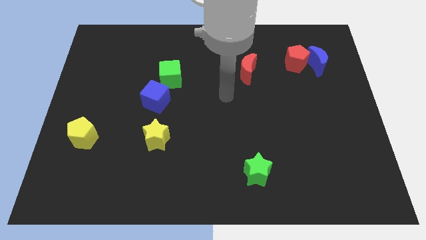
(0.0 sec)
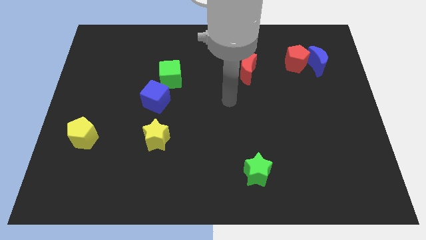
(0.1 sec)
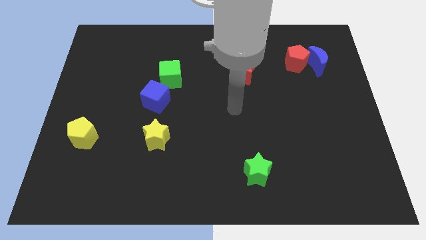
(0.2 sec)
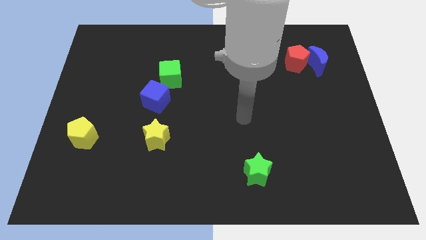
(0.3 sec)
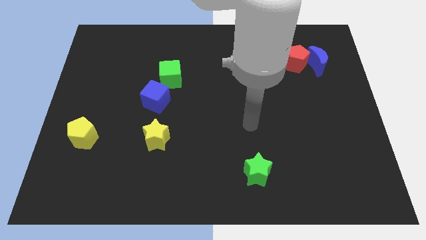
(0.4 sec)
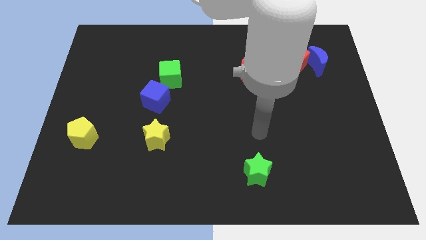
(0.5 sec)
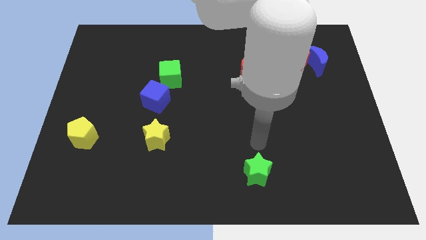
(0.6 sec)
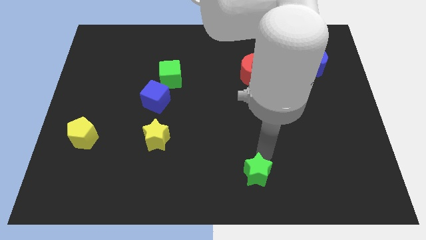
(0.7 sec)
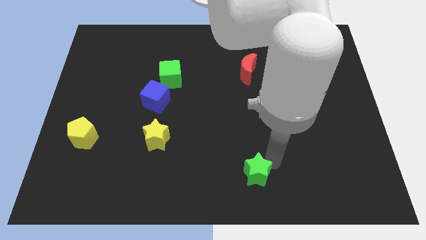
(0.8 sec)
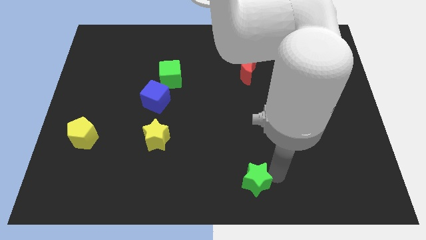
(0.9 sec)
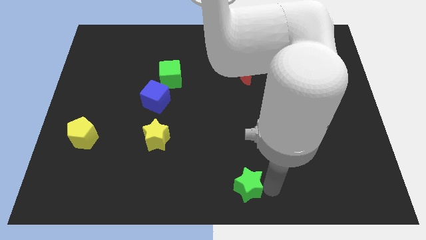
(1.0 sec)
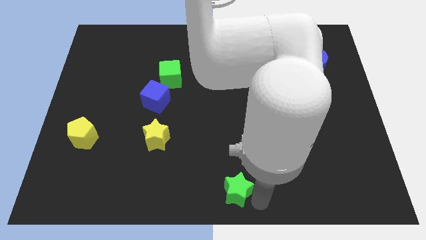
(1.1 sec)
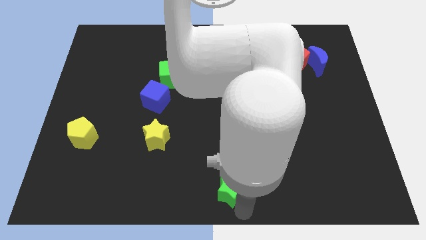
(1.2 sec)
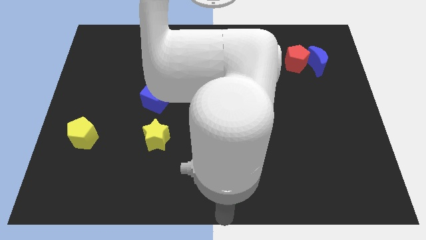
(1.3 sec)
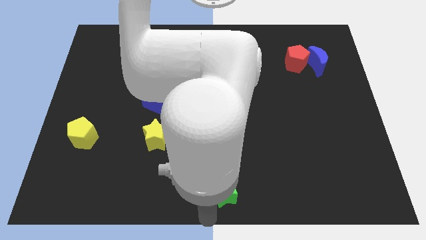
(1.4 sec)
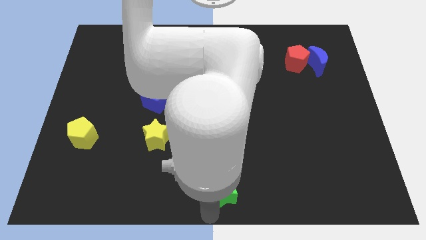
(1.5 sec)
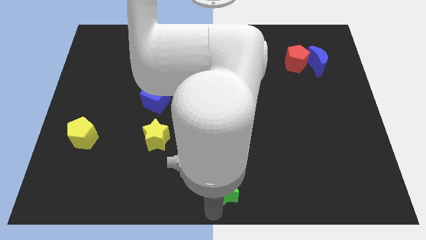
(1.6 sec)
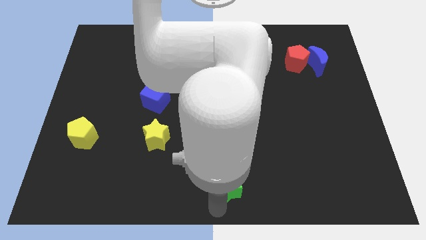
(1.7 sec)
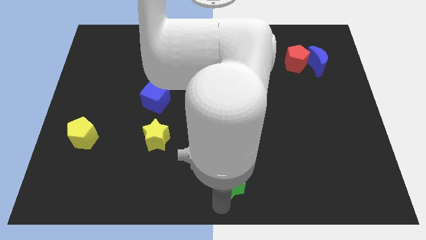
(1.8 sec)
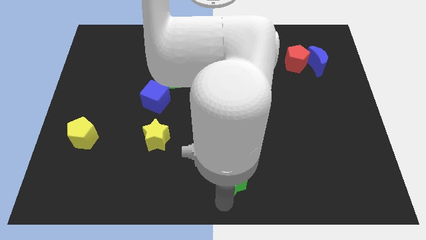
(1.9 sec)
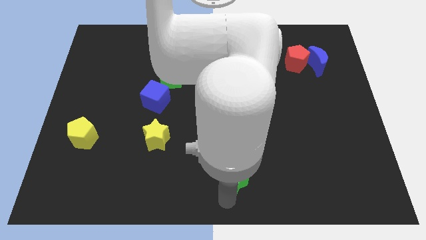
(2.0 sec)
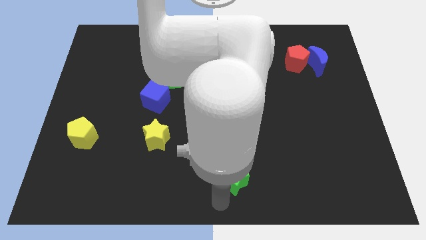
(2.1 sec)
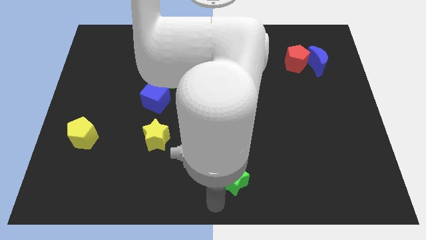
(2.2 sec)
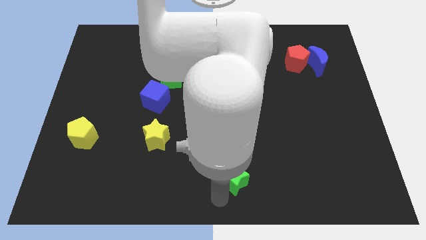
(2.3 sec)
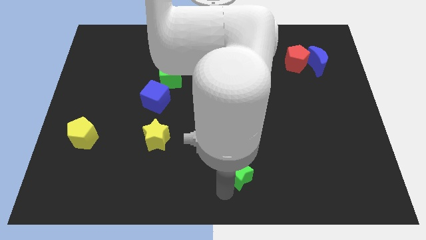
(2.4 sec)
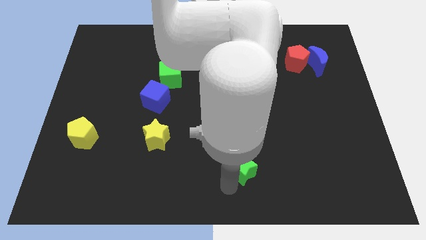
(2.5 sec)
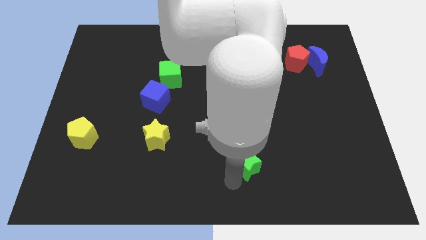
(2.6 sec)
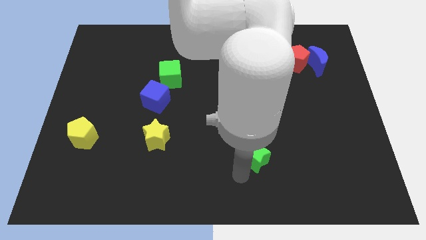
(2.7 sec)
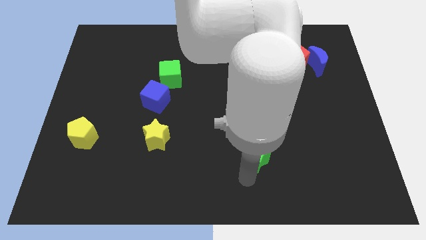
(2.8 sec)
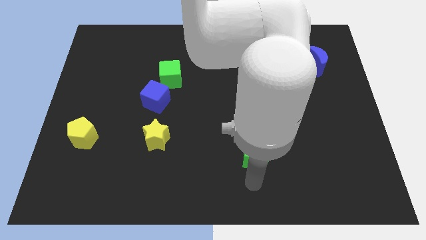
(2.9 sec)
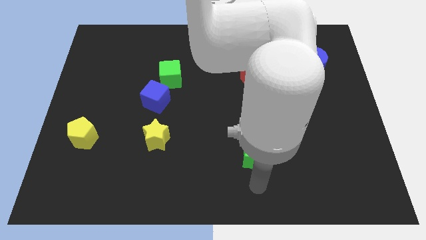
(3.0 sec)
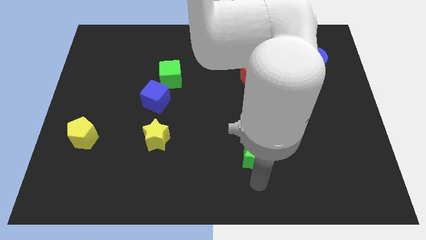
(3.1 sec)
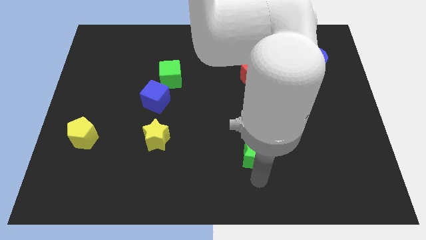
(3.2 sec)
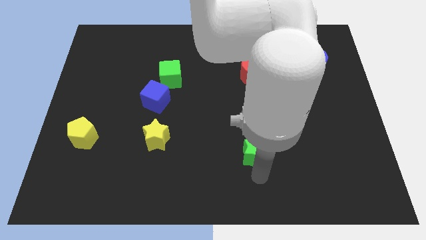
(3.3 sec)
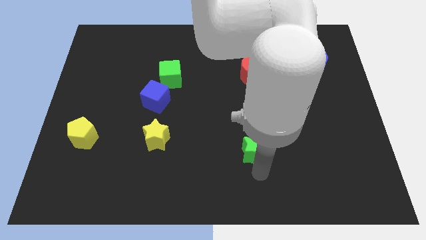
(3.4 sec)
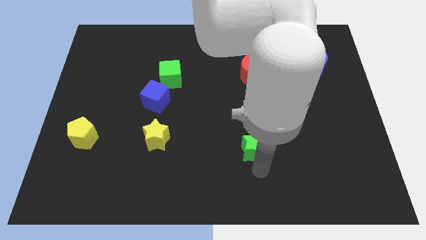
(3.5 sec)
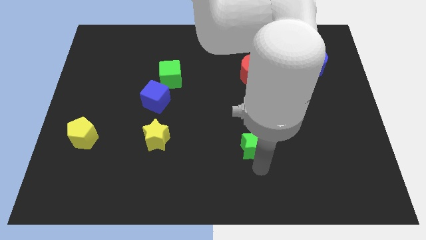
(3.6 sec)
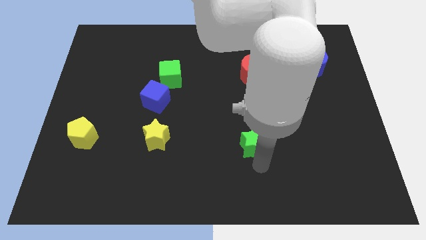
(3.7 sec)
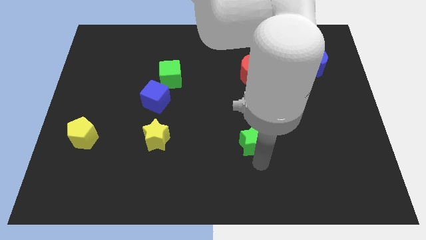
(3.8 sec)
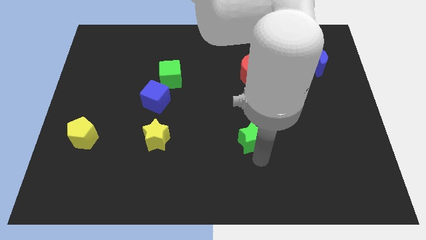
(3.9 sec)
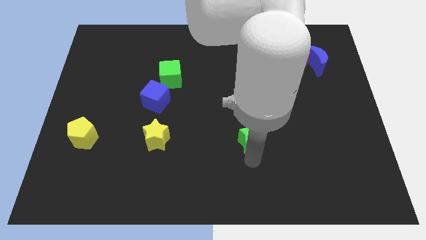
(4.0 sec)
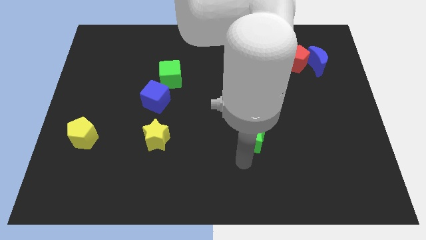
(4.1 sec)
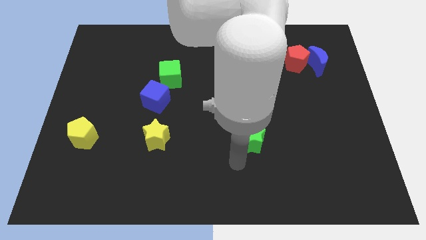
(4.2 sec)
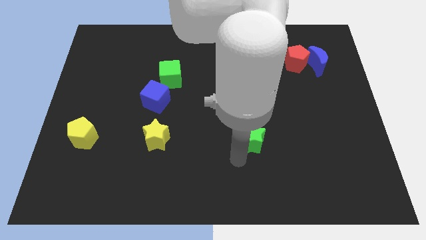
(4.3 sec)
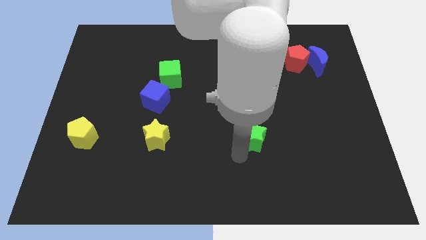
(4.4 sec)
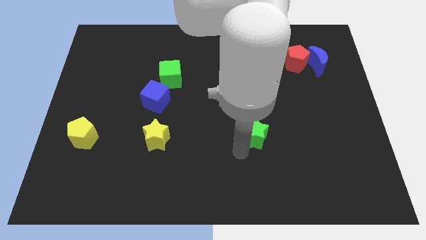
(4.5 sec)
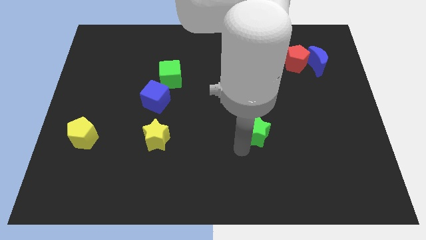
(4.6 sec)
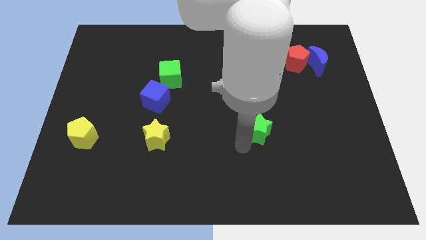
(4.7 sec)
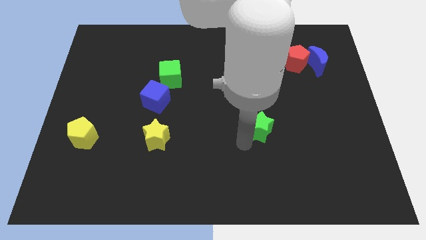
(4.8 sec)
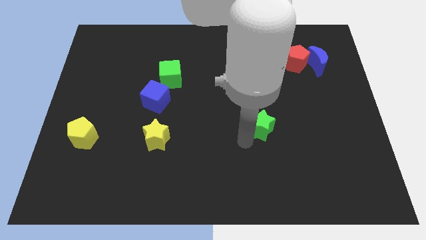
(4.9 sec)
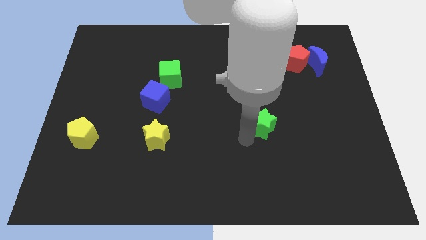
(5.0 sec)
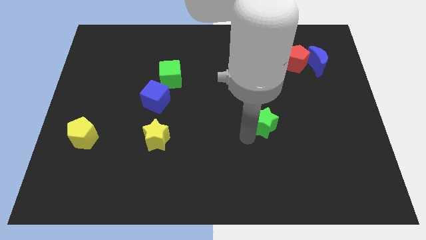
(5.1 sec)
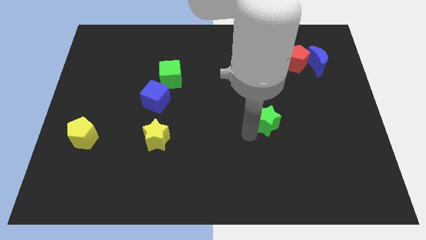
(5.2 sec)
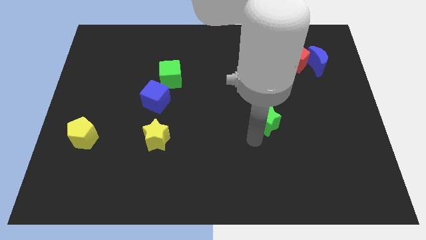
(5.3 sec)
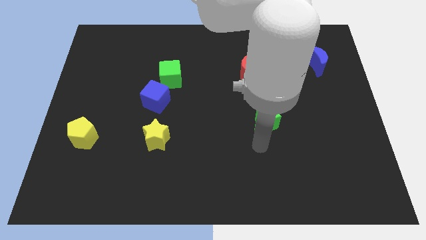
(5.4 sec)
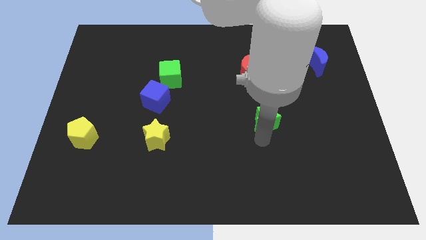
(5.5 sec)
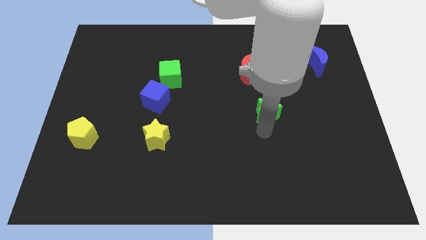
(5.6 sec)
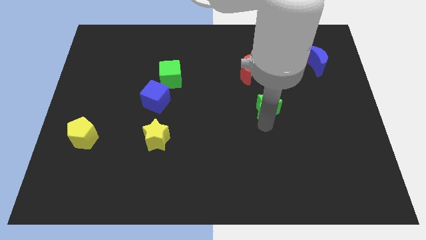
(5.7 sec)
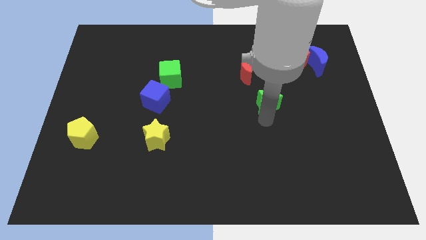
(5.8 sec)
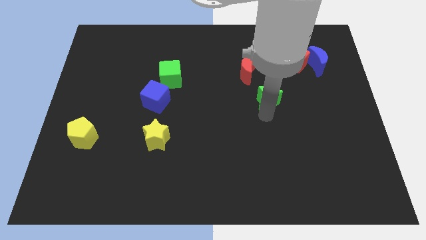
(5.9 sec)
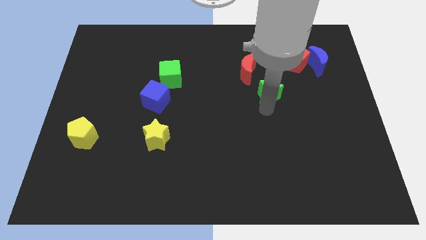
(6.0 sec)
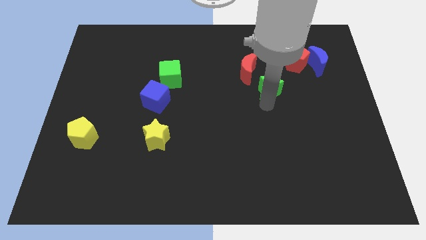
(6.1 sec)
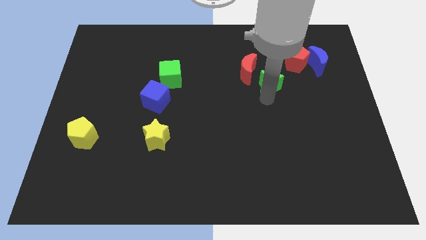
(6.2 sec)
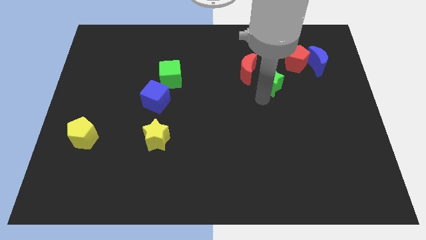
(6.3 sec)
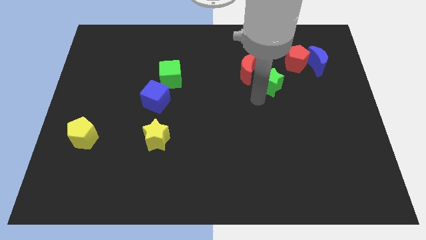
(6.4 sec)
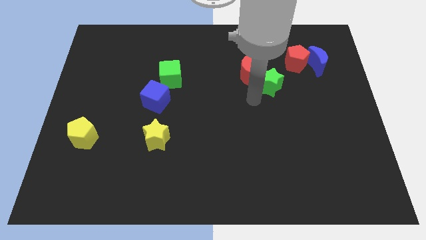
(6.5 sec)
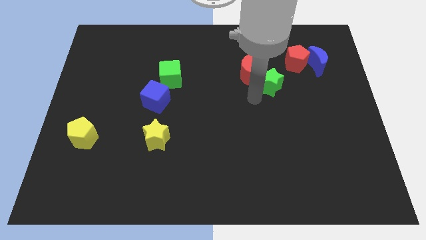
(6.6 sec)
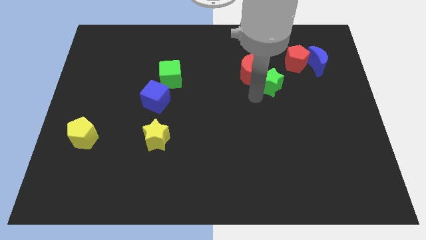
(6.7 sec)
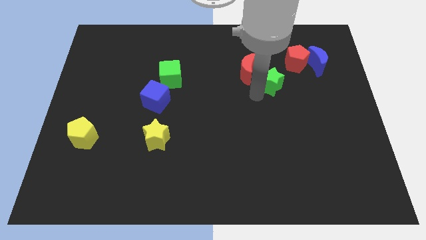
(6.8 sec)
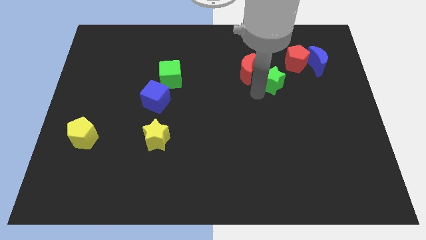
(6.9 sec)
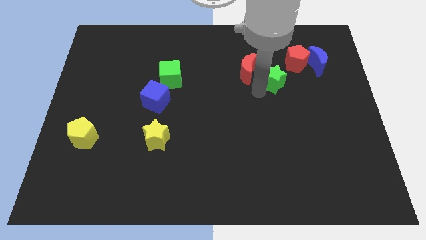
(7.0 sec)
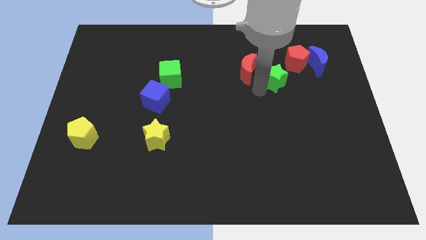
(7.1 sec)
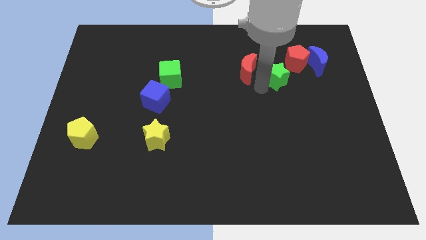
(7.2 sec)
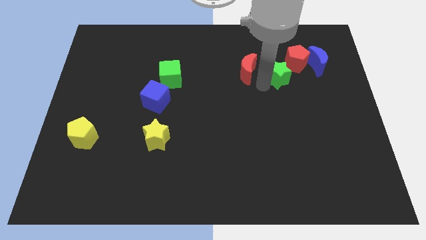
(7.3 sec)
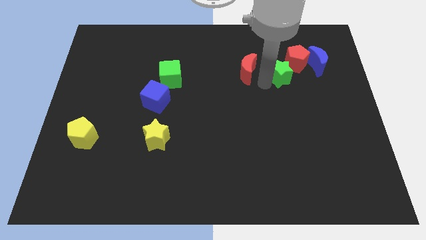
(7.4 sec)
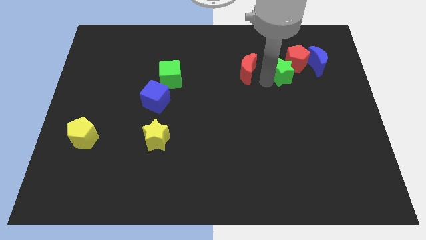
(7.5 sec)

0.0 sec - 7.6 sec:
slide the green star close to the red pentagon
